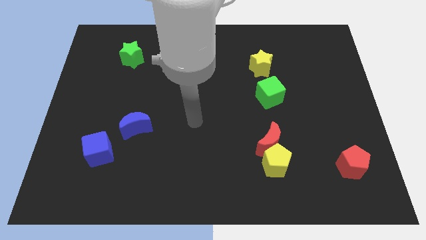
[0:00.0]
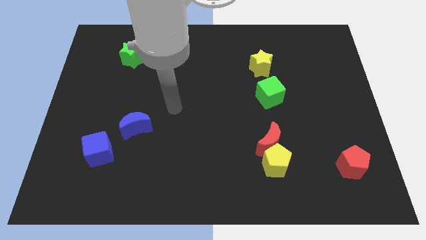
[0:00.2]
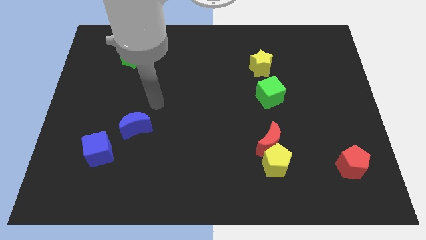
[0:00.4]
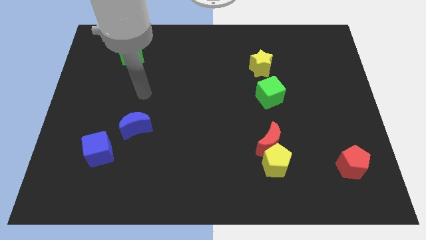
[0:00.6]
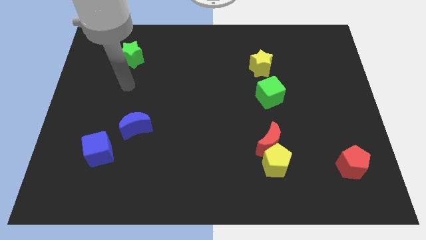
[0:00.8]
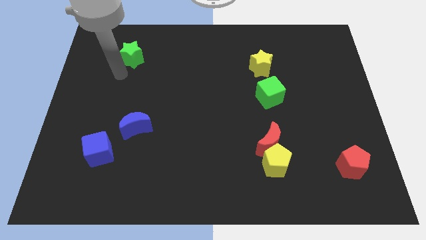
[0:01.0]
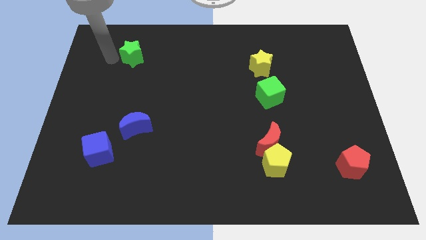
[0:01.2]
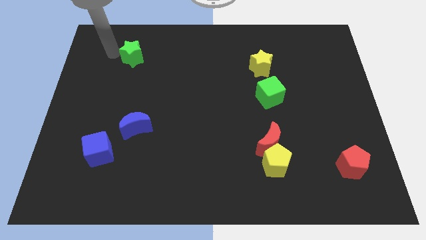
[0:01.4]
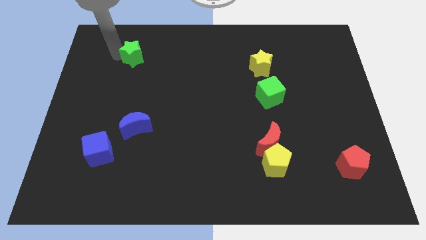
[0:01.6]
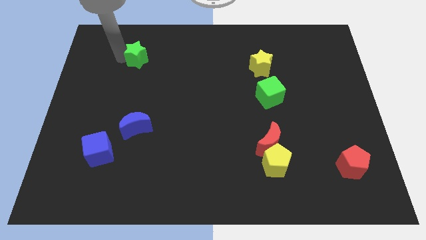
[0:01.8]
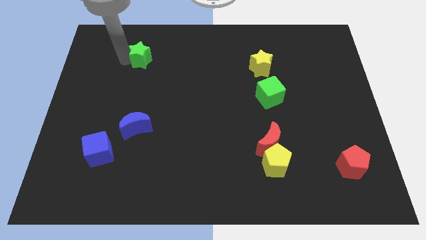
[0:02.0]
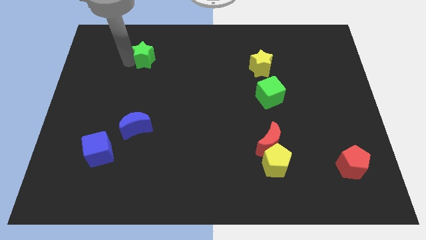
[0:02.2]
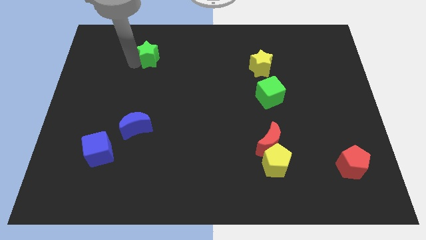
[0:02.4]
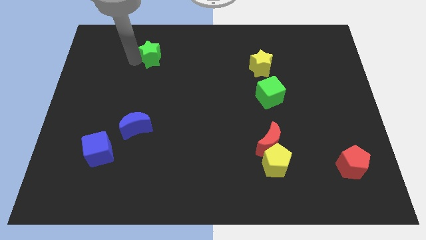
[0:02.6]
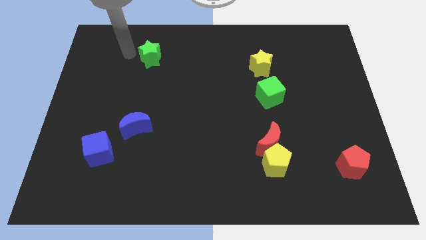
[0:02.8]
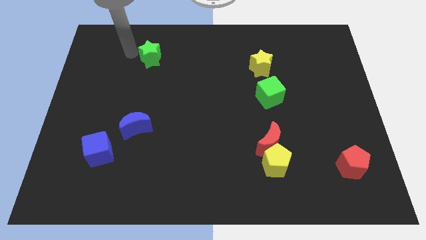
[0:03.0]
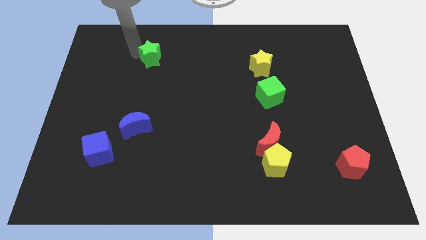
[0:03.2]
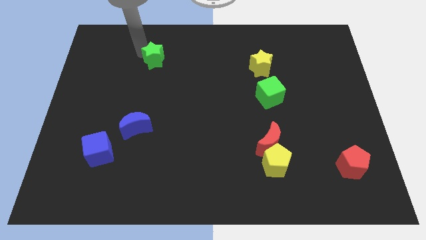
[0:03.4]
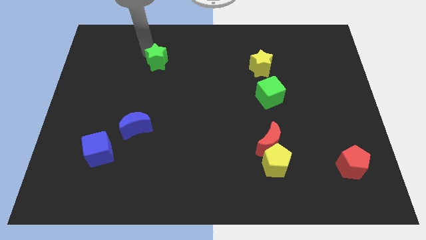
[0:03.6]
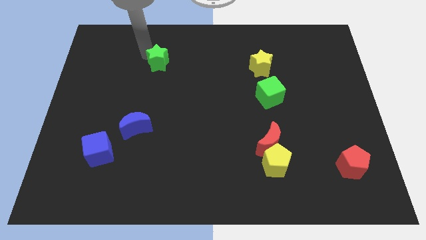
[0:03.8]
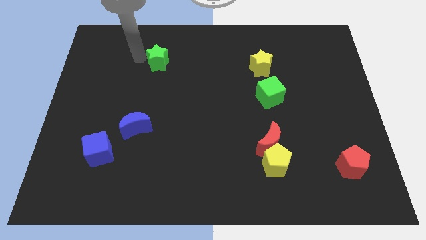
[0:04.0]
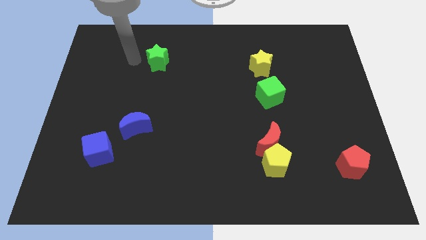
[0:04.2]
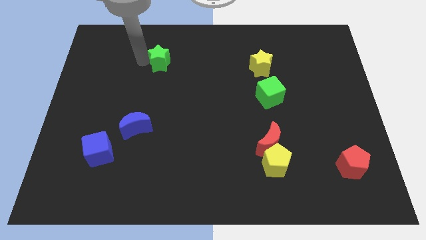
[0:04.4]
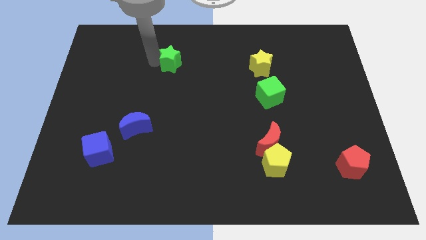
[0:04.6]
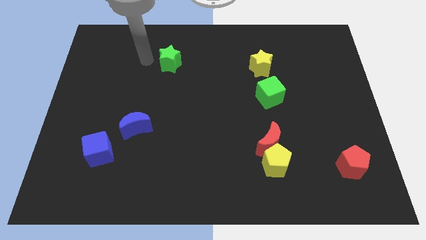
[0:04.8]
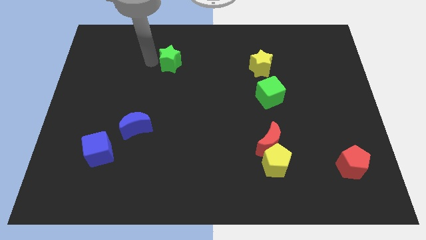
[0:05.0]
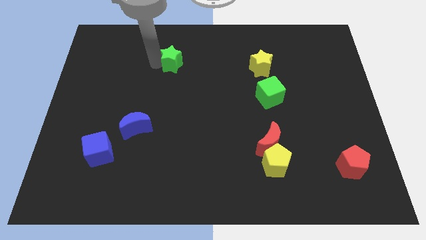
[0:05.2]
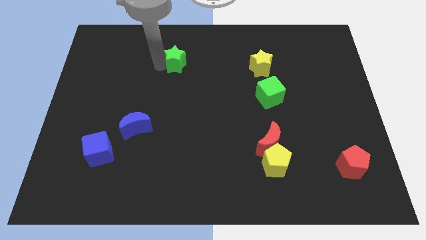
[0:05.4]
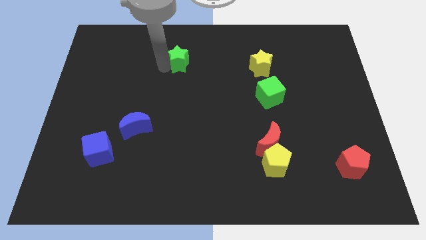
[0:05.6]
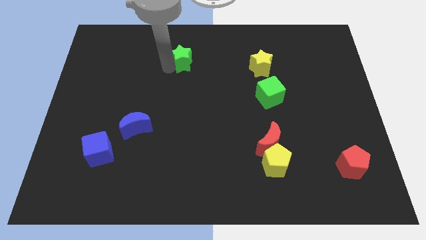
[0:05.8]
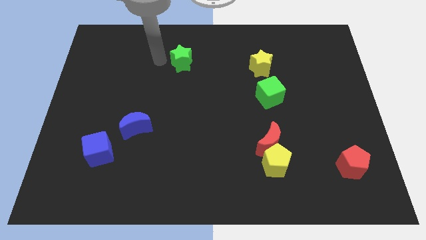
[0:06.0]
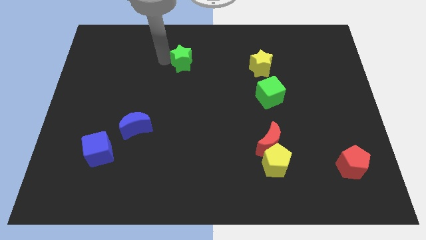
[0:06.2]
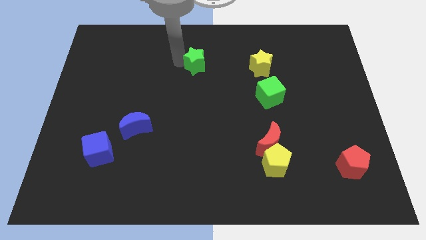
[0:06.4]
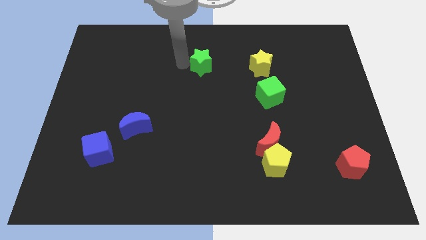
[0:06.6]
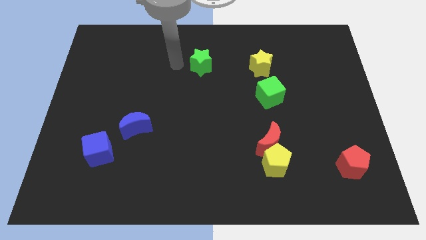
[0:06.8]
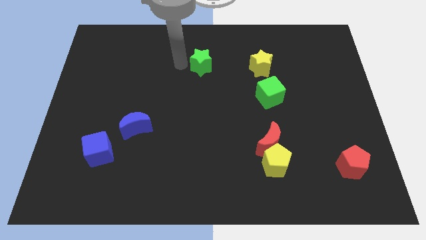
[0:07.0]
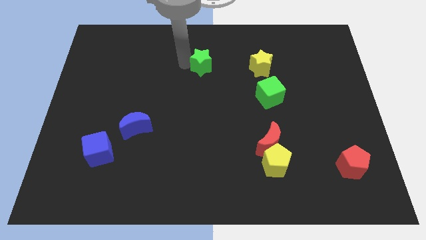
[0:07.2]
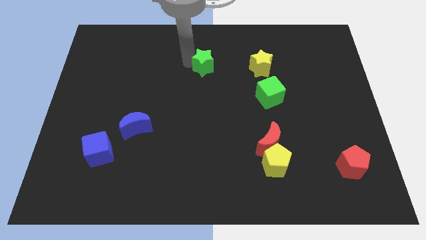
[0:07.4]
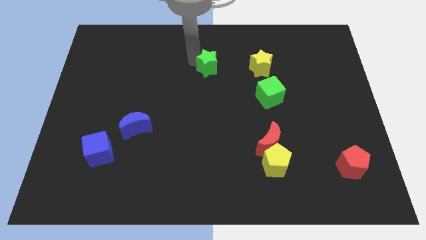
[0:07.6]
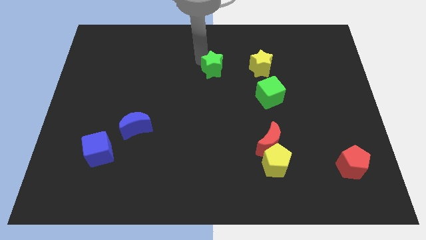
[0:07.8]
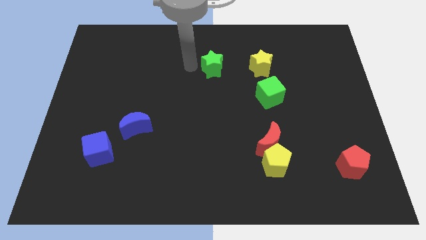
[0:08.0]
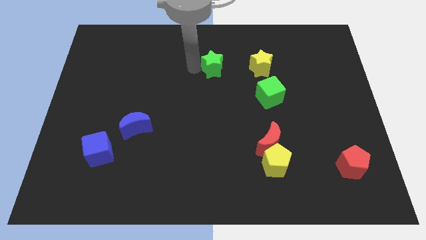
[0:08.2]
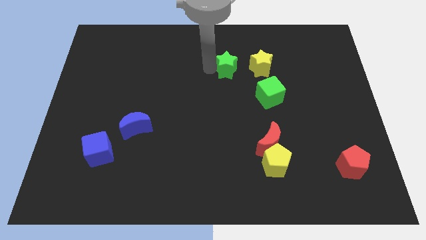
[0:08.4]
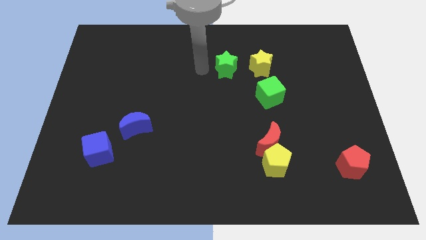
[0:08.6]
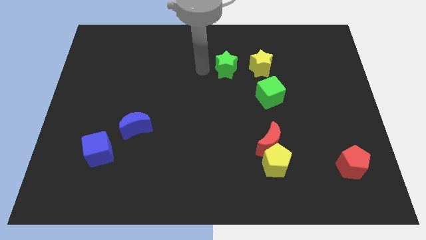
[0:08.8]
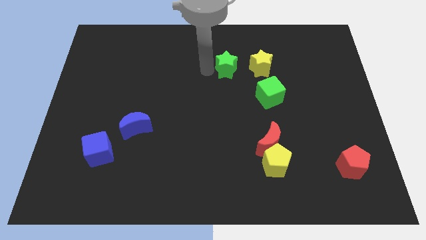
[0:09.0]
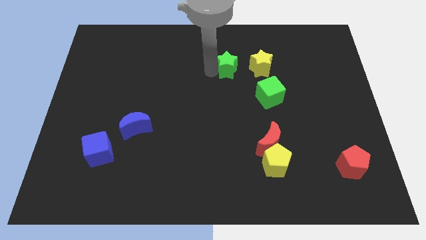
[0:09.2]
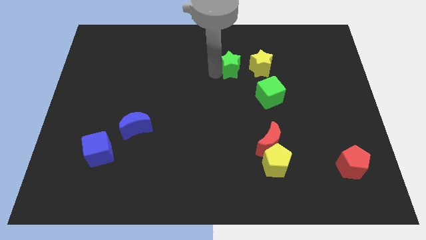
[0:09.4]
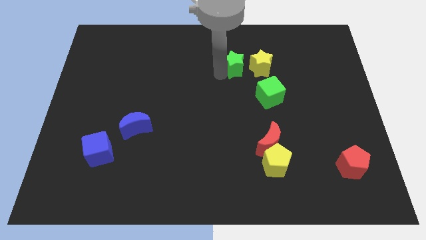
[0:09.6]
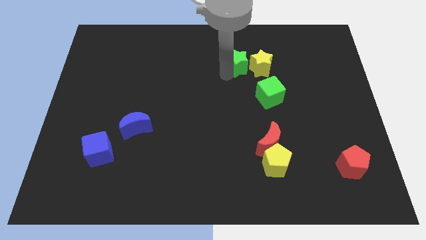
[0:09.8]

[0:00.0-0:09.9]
slide the green star next to the yellow star

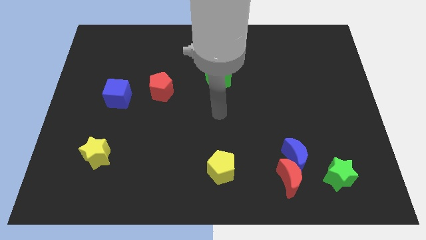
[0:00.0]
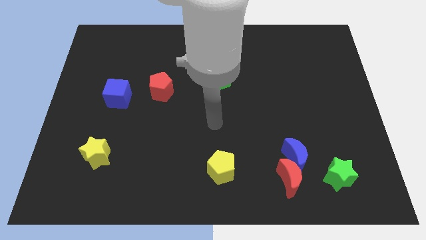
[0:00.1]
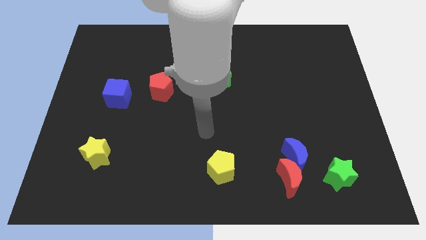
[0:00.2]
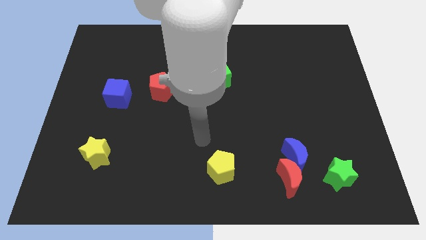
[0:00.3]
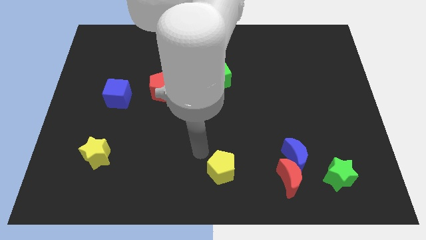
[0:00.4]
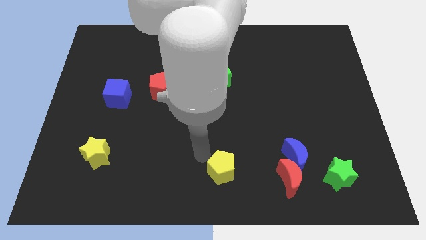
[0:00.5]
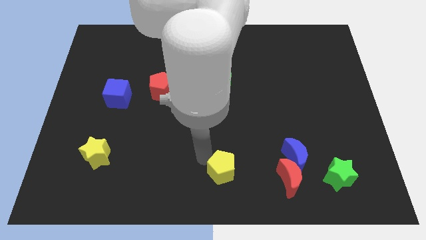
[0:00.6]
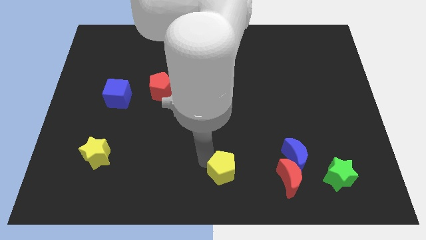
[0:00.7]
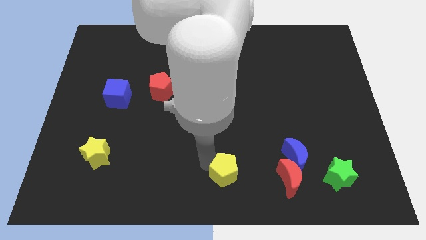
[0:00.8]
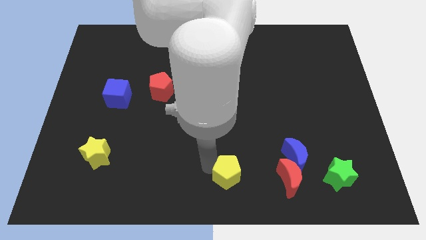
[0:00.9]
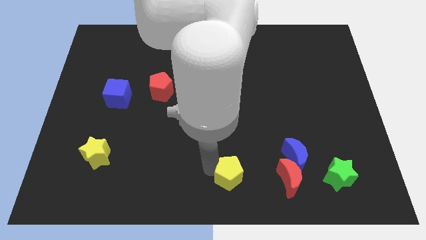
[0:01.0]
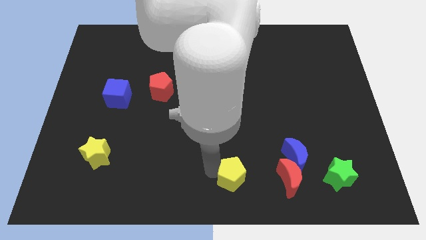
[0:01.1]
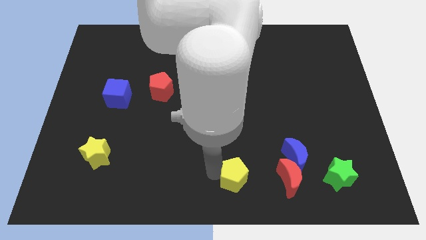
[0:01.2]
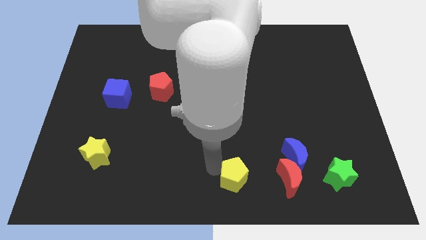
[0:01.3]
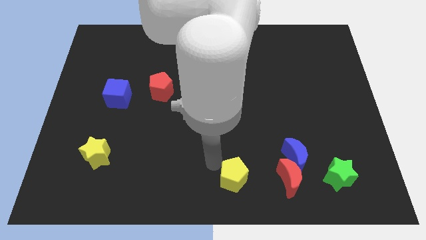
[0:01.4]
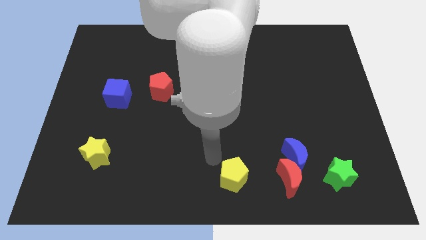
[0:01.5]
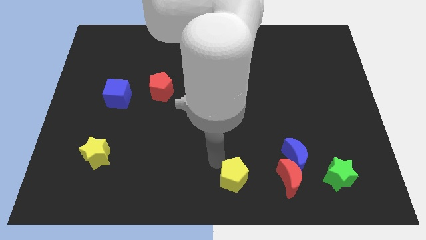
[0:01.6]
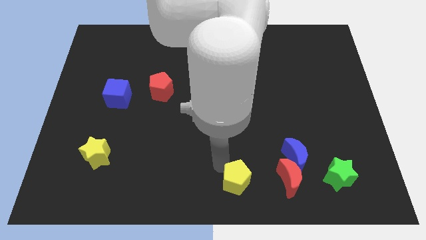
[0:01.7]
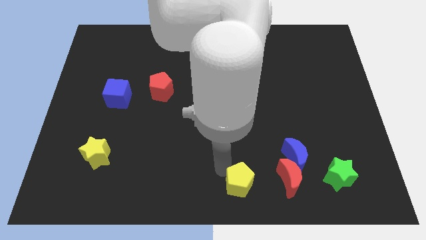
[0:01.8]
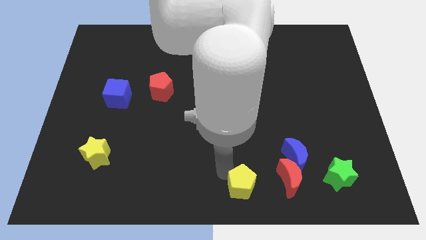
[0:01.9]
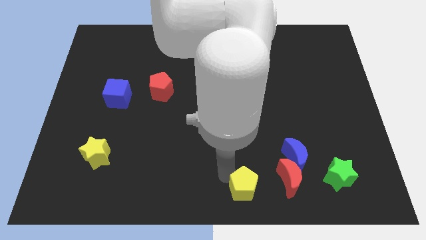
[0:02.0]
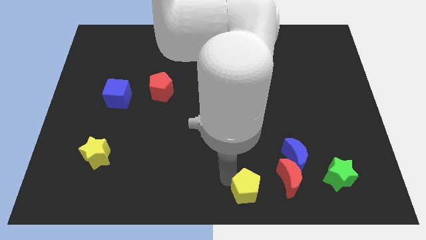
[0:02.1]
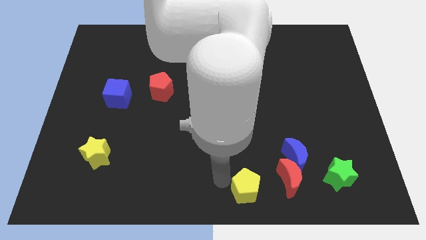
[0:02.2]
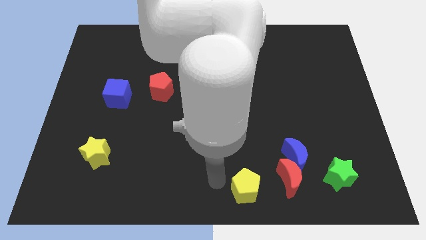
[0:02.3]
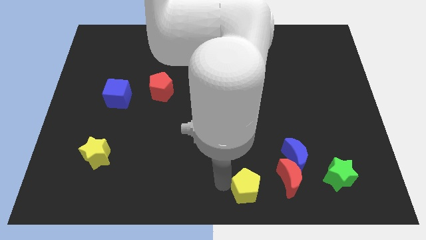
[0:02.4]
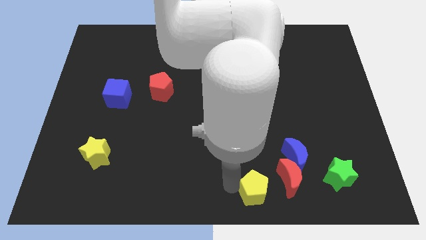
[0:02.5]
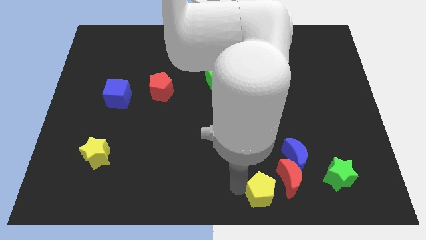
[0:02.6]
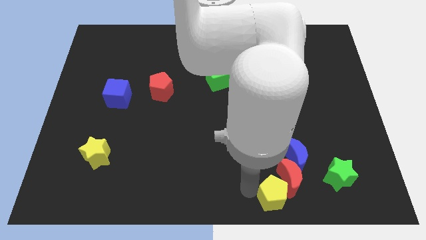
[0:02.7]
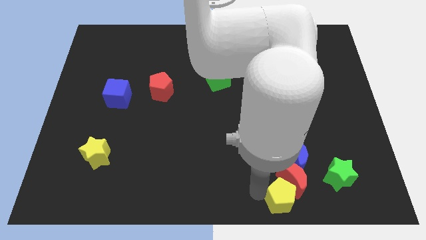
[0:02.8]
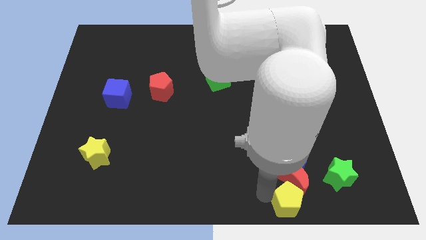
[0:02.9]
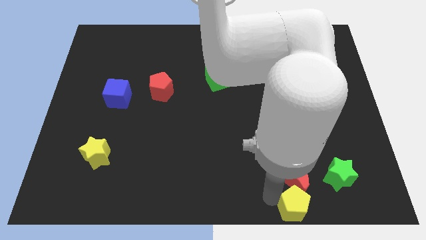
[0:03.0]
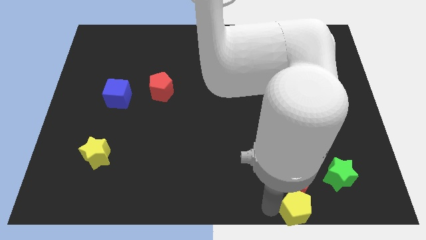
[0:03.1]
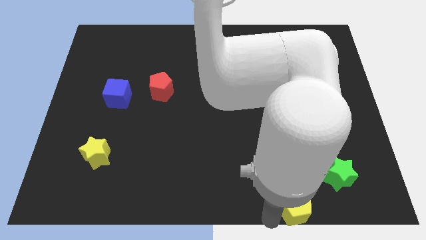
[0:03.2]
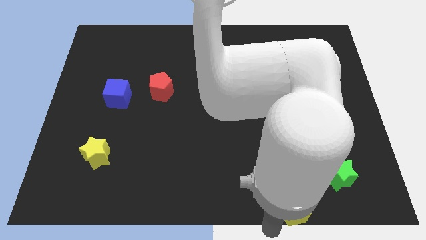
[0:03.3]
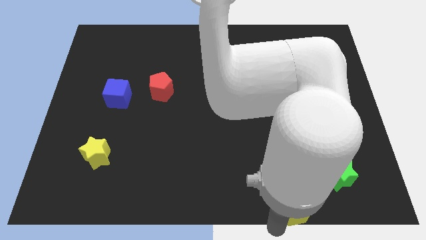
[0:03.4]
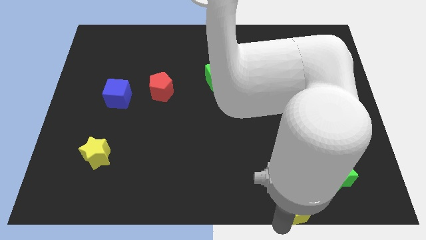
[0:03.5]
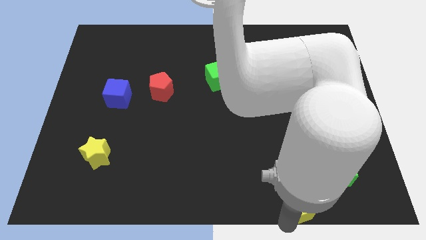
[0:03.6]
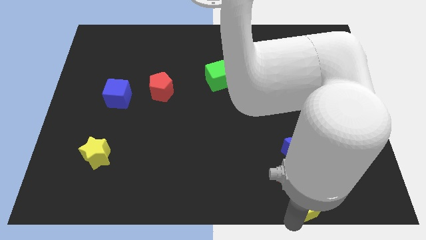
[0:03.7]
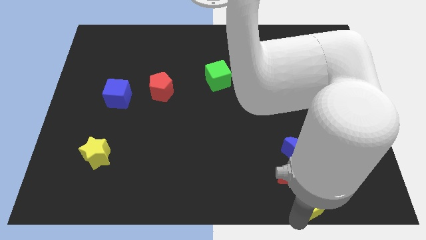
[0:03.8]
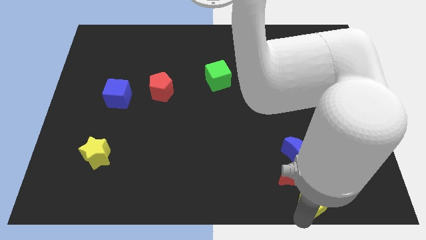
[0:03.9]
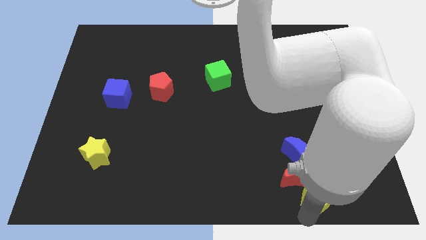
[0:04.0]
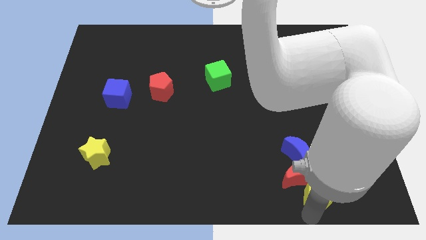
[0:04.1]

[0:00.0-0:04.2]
push the yellow pentagon close to the green star
